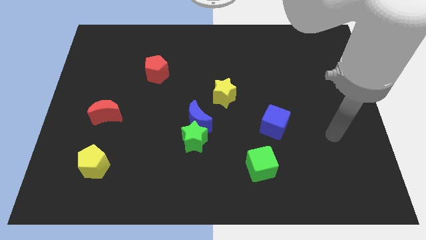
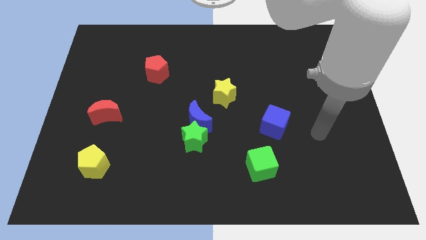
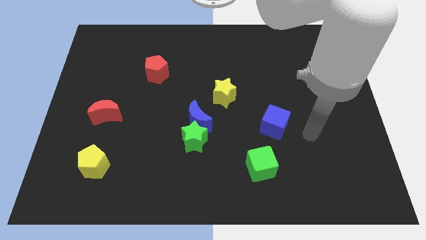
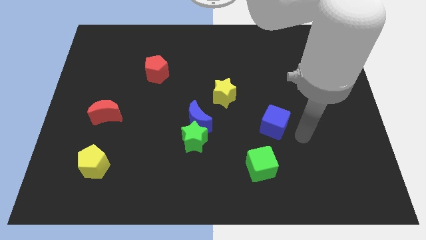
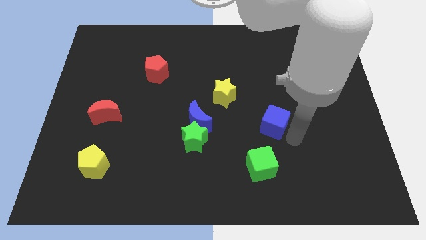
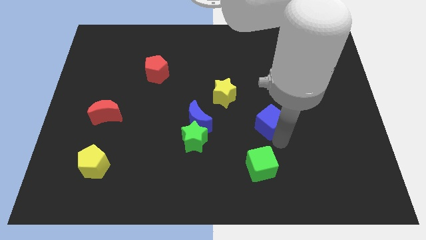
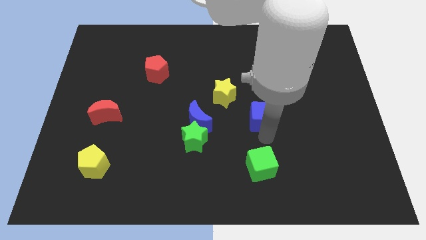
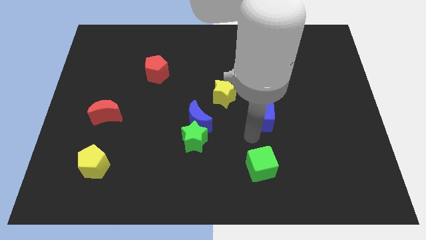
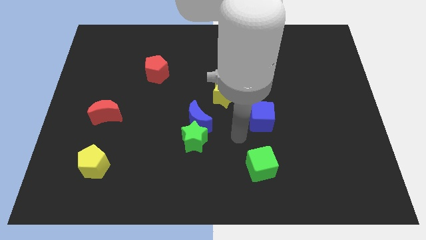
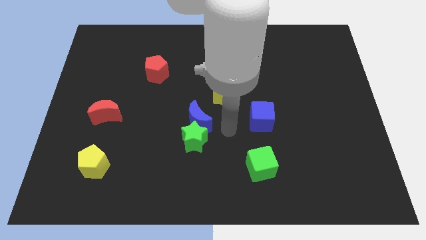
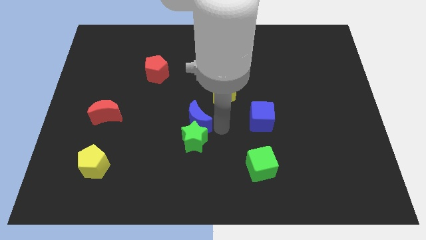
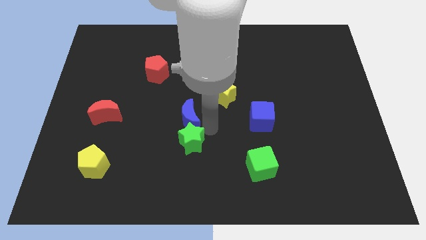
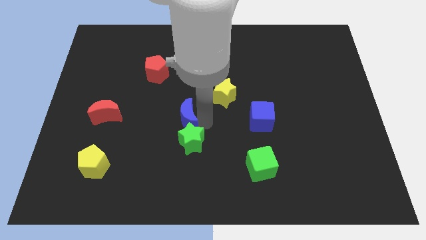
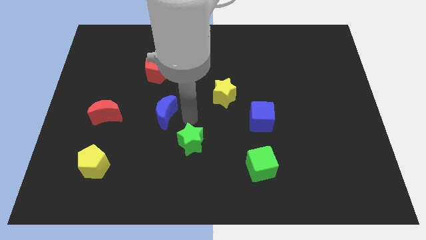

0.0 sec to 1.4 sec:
move the green star away from the blue moon

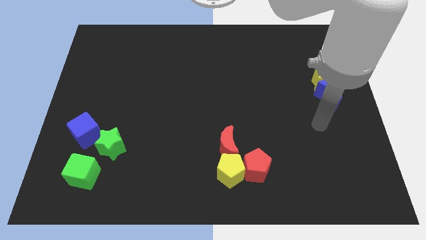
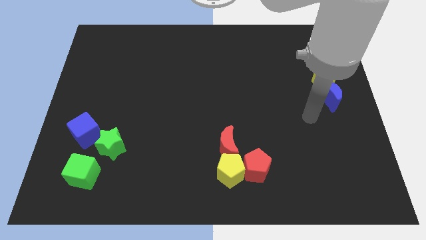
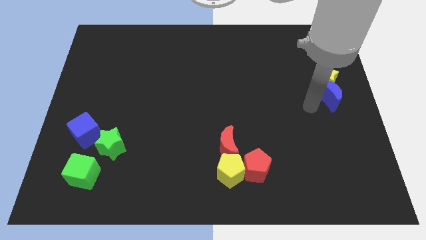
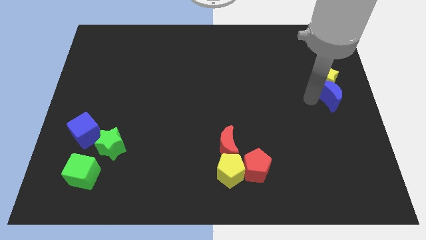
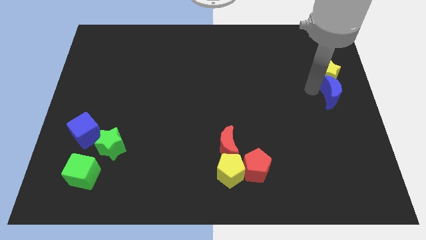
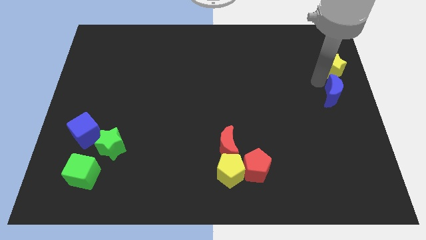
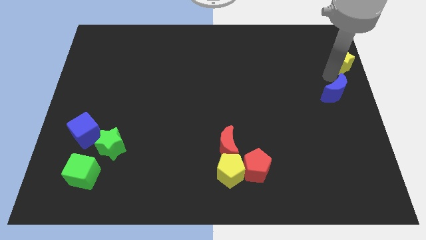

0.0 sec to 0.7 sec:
pull the blue moon apart from the yellow star

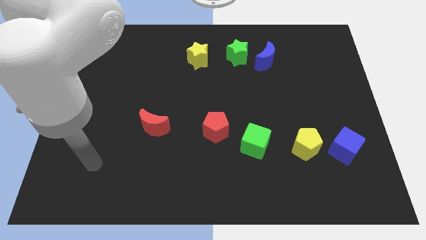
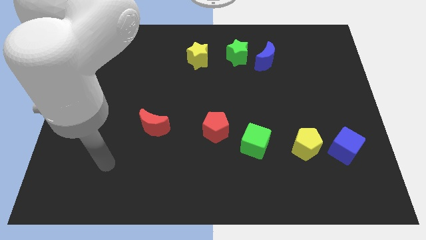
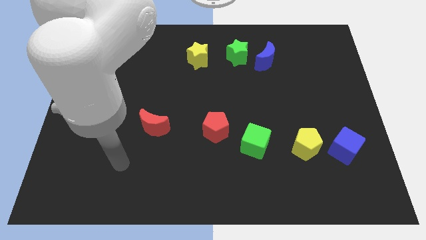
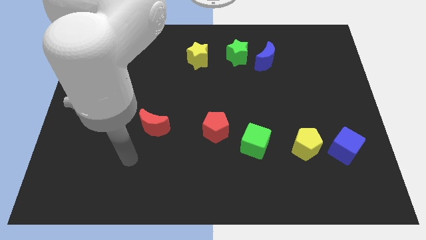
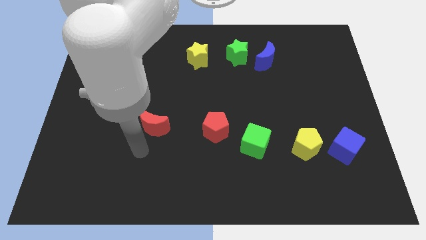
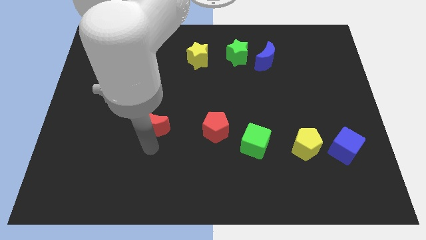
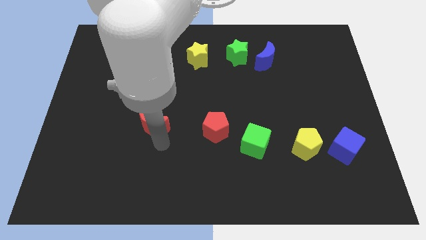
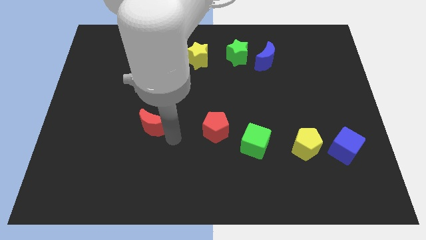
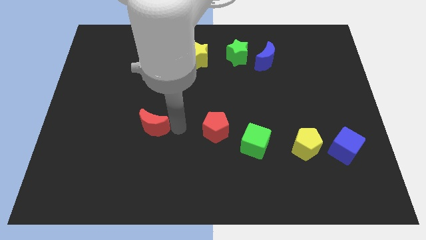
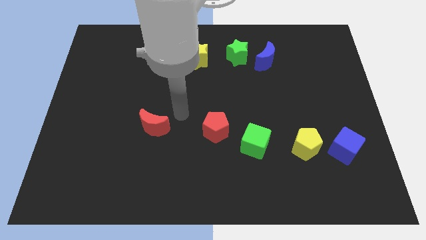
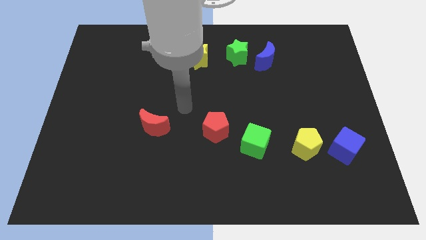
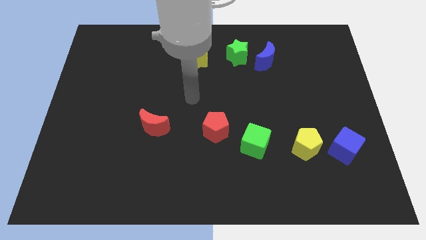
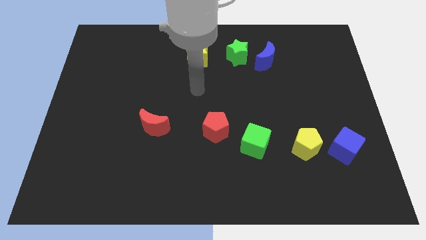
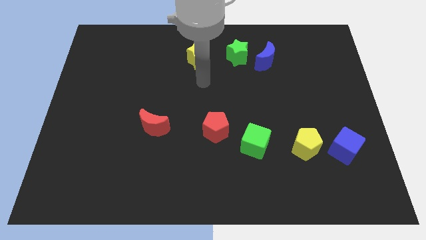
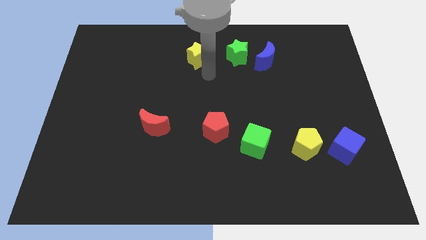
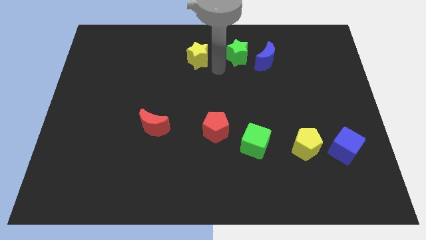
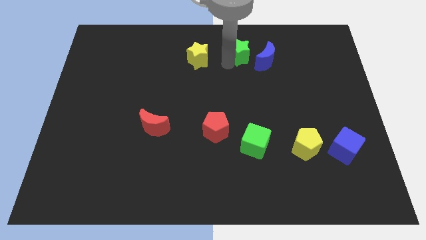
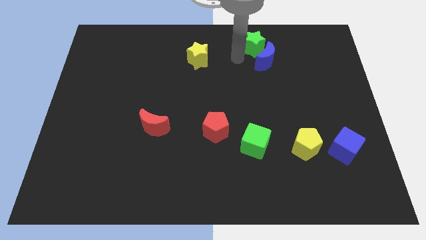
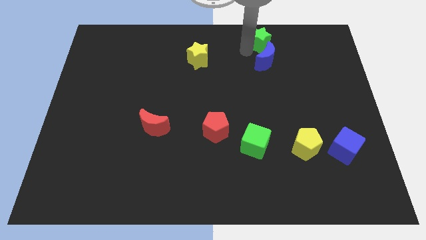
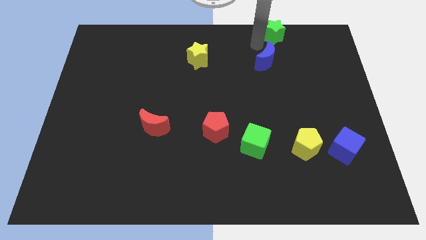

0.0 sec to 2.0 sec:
separate the blue moon from the green star

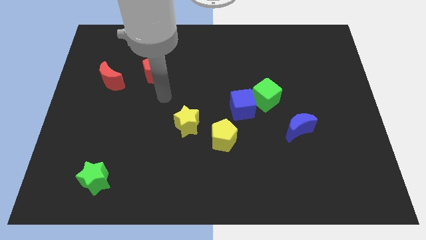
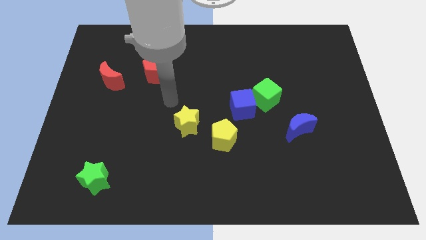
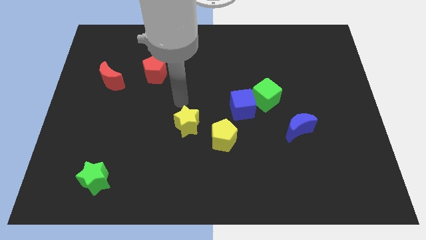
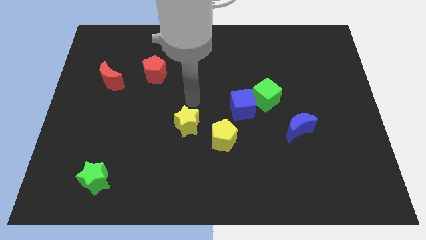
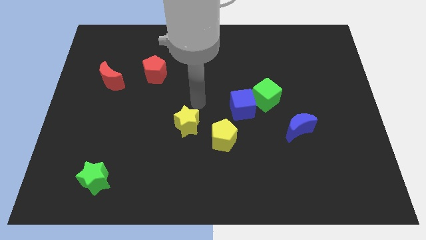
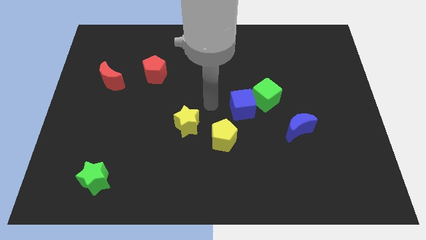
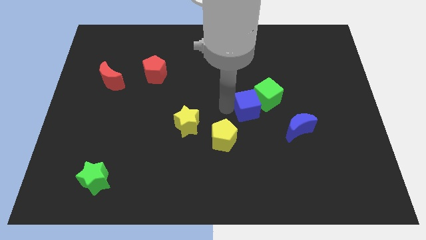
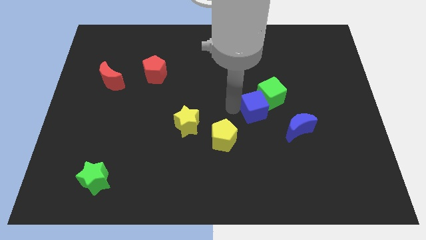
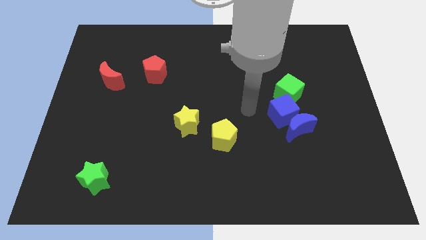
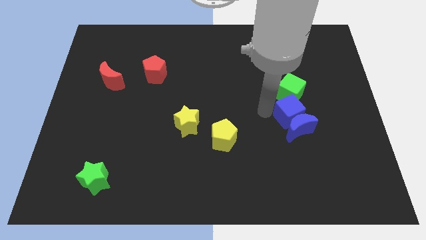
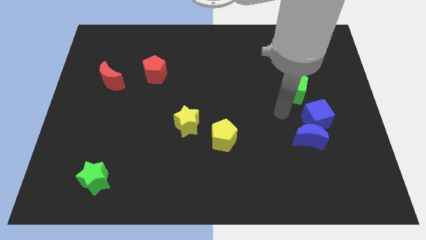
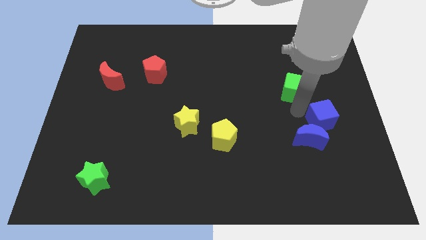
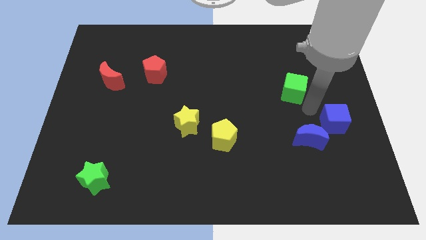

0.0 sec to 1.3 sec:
separate the green cube from the blue cube

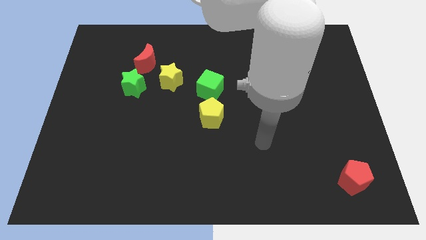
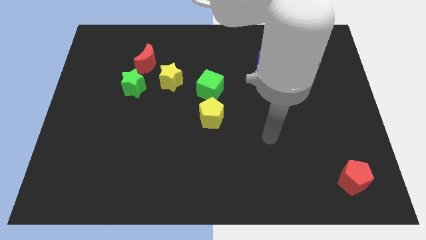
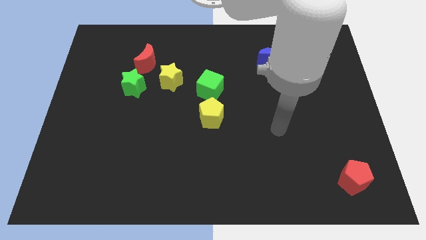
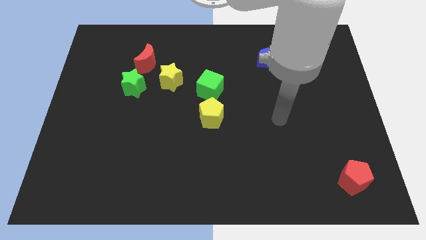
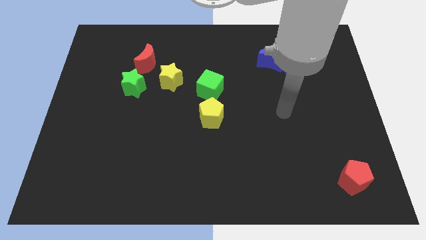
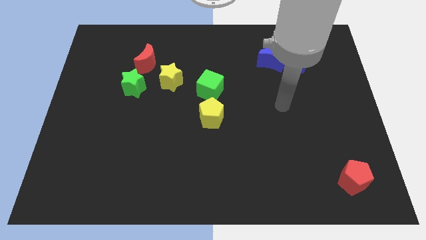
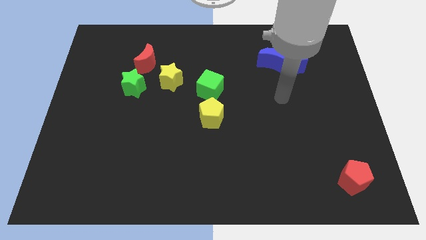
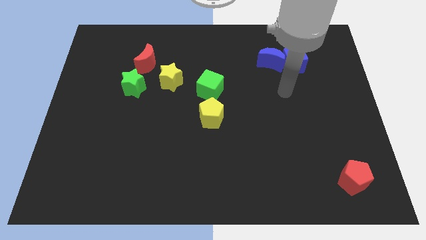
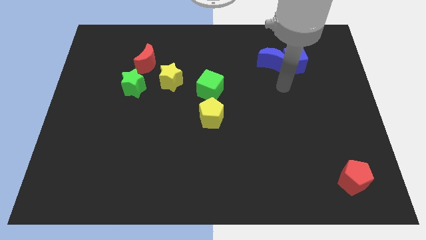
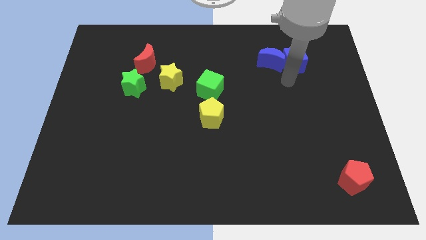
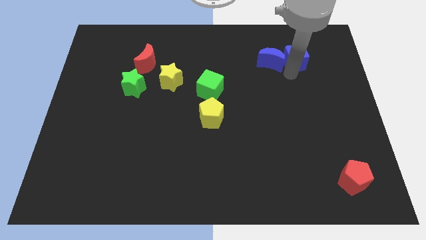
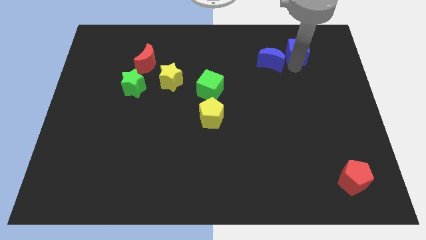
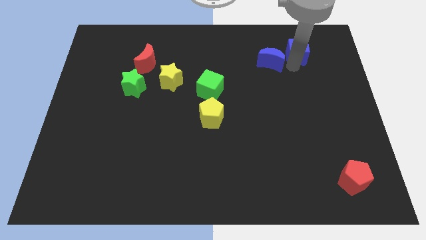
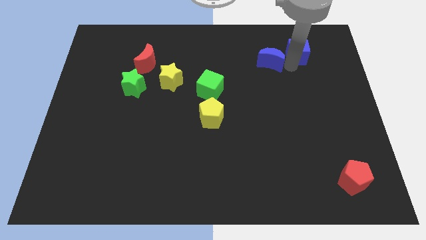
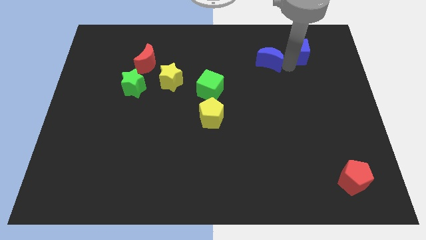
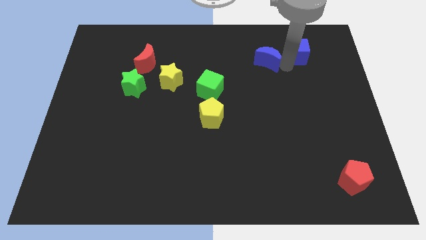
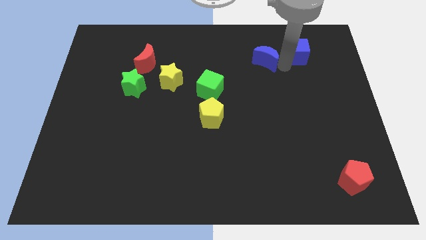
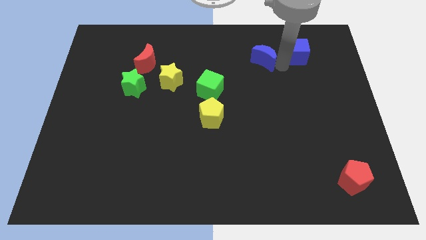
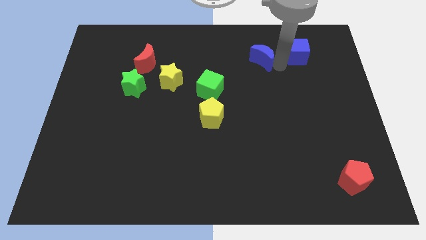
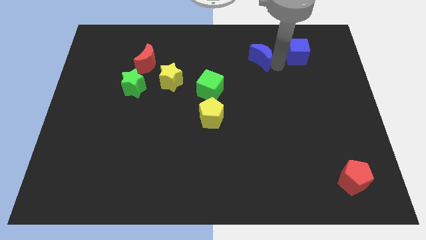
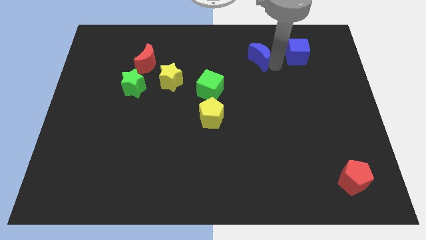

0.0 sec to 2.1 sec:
separate the blue moon from the blue cube

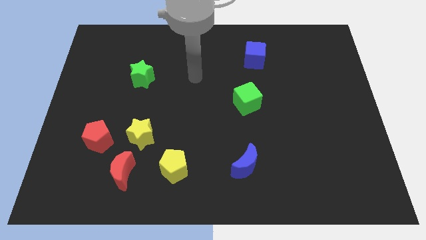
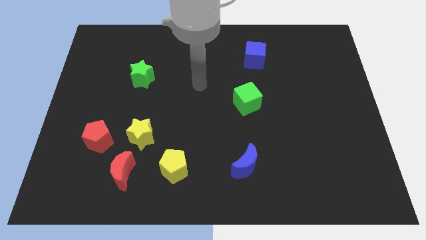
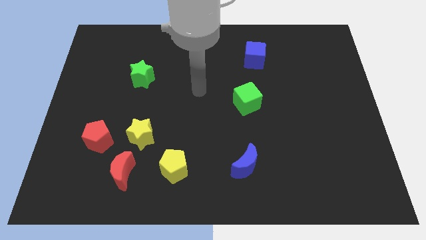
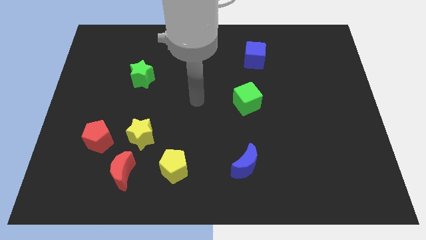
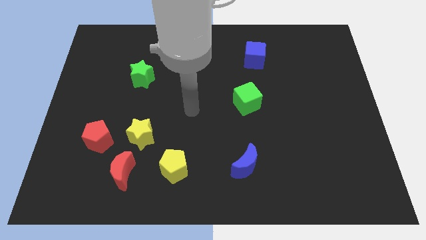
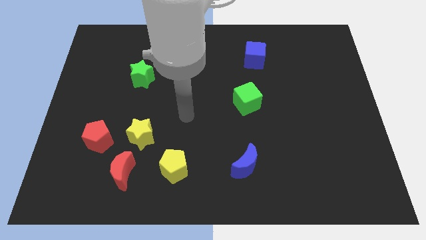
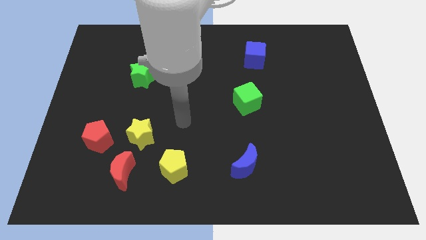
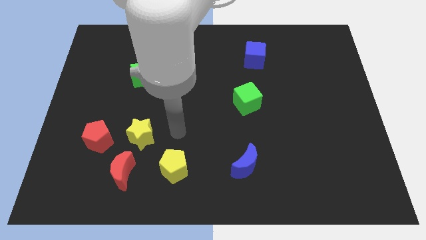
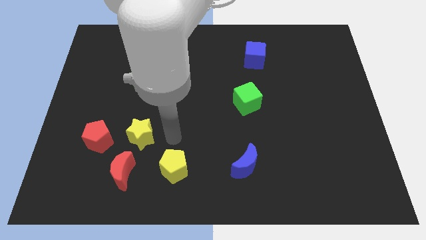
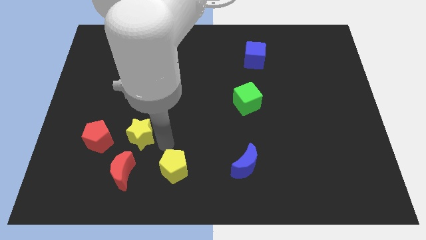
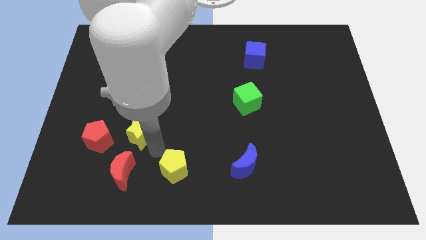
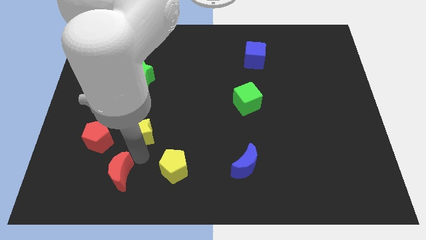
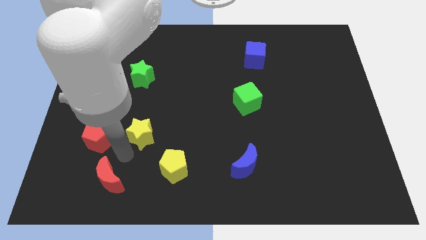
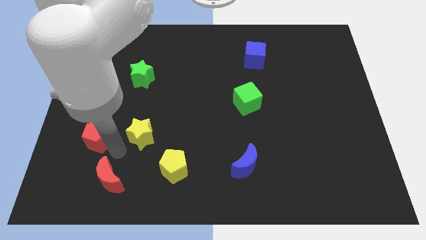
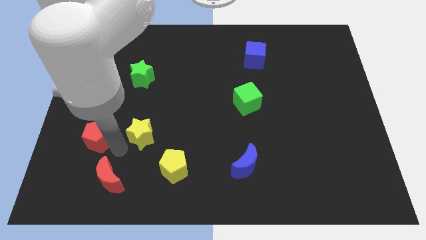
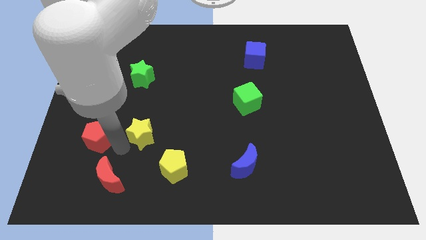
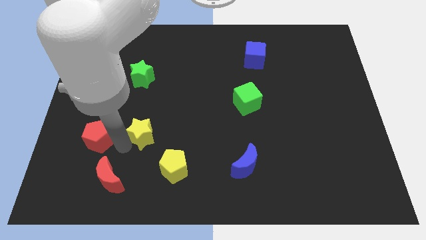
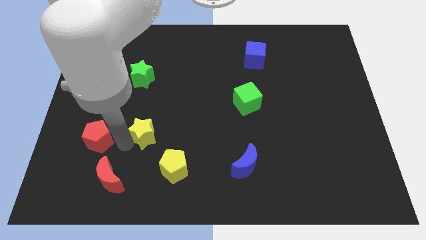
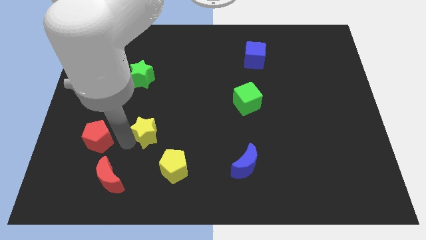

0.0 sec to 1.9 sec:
separate the yellow star from the red pentagon and red moon
